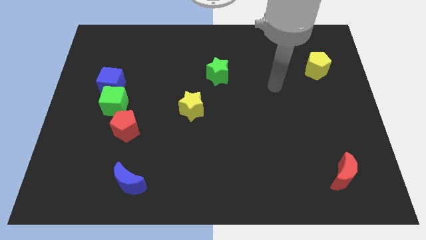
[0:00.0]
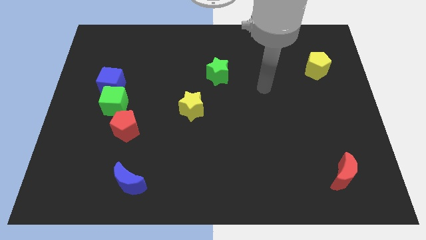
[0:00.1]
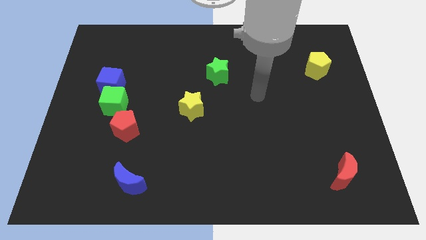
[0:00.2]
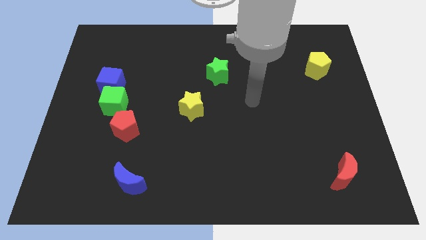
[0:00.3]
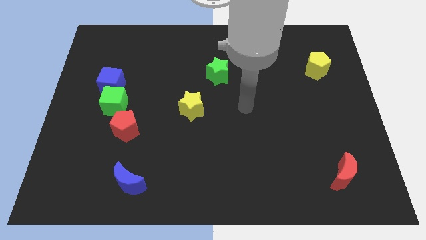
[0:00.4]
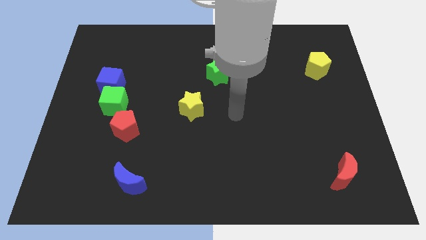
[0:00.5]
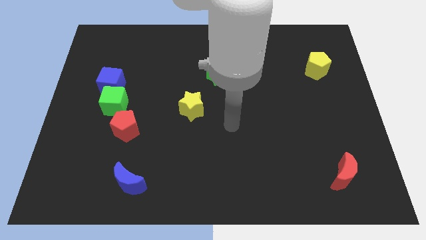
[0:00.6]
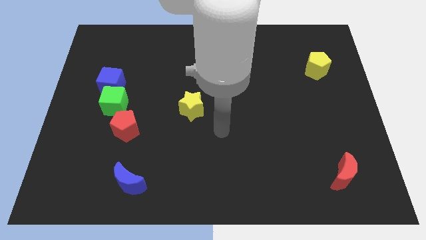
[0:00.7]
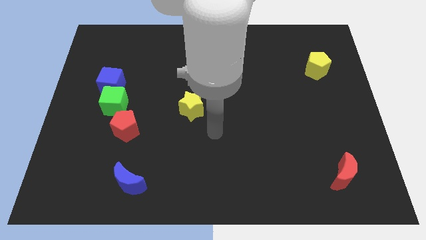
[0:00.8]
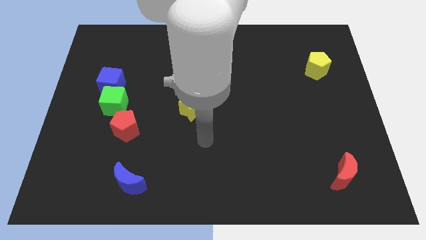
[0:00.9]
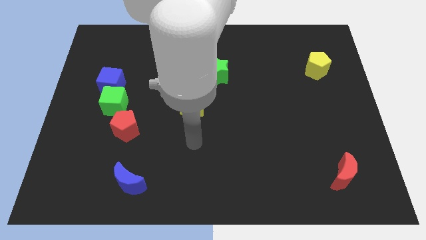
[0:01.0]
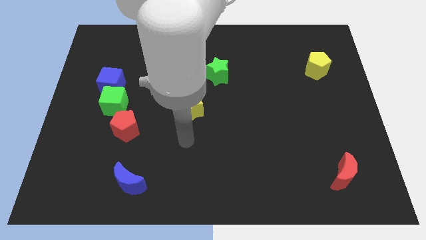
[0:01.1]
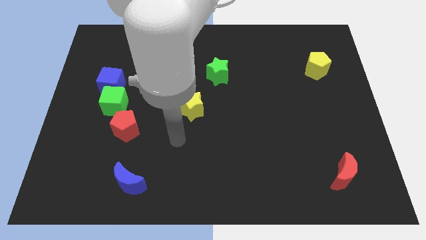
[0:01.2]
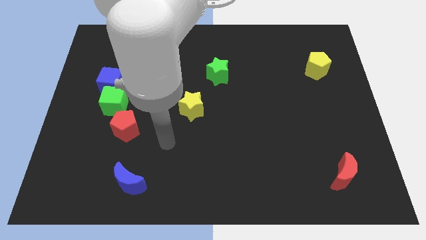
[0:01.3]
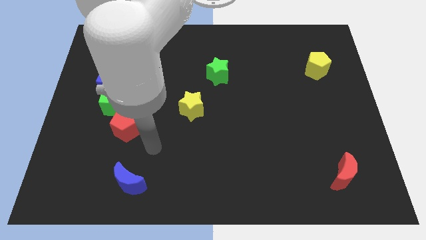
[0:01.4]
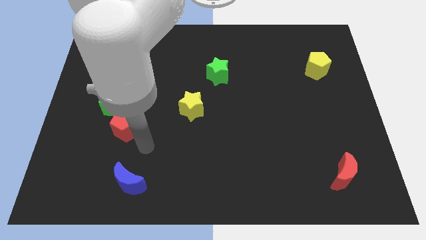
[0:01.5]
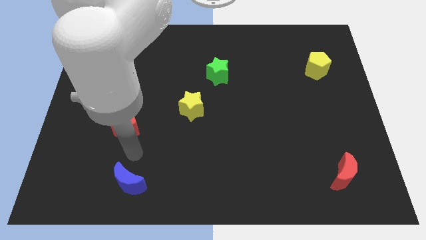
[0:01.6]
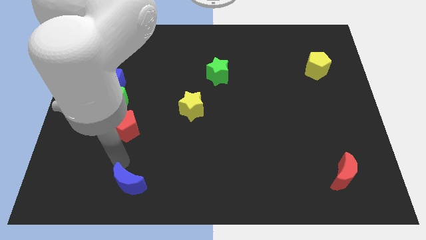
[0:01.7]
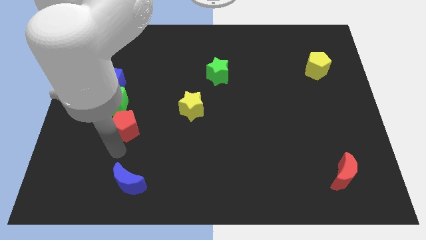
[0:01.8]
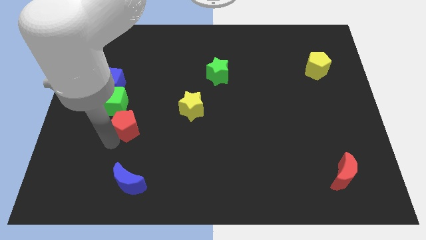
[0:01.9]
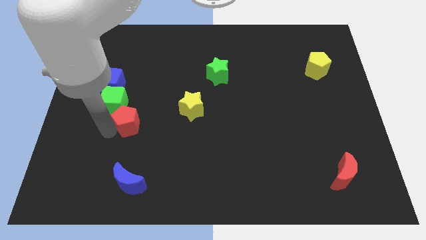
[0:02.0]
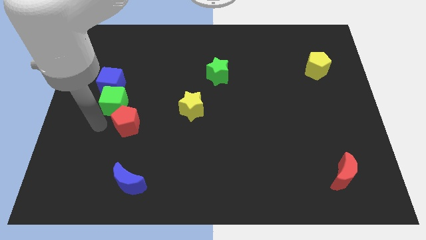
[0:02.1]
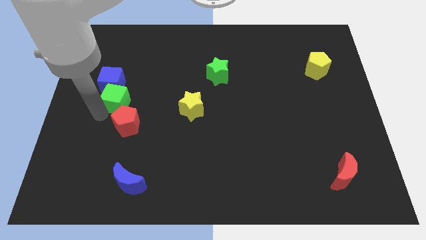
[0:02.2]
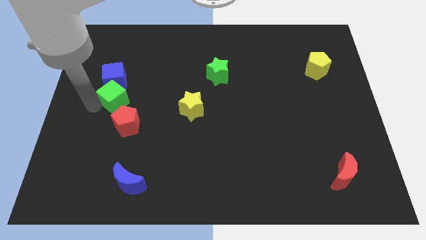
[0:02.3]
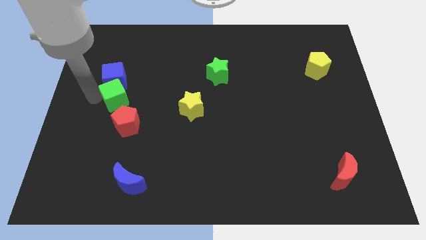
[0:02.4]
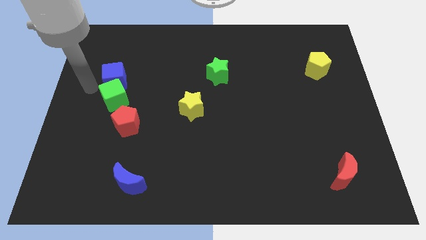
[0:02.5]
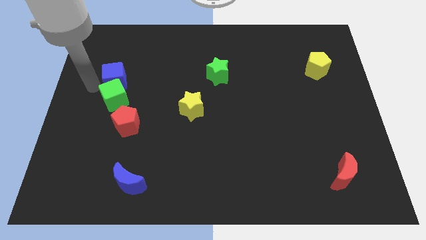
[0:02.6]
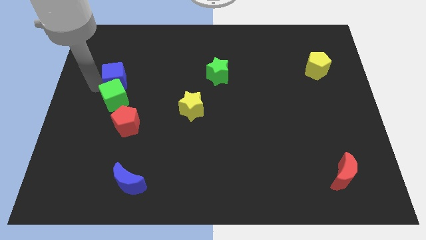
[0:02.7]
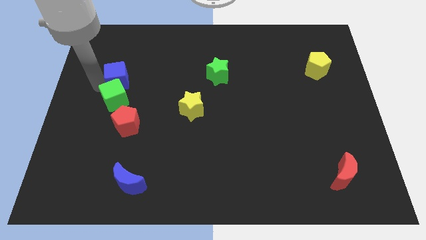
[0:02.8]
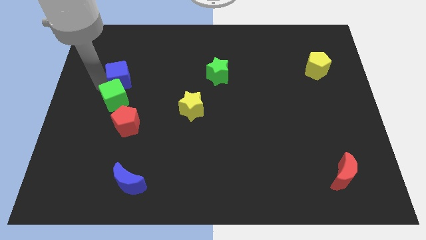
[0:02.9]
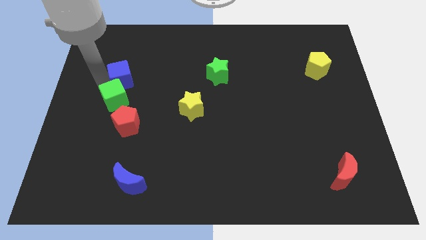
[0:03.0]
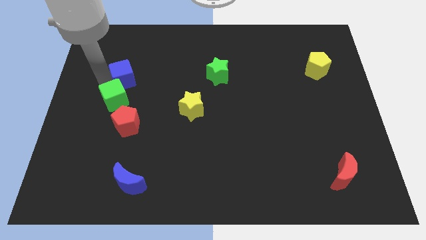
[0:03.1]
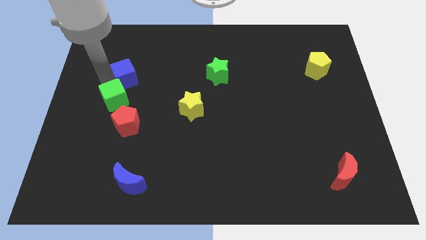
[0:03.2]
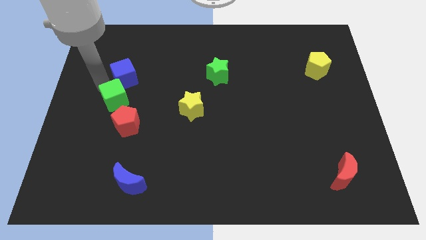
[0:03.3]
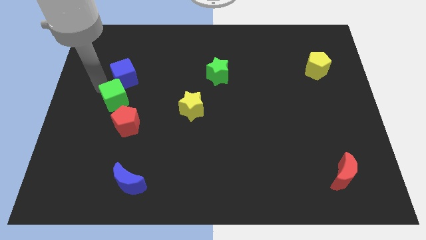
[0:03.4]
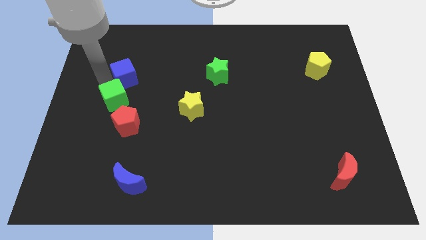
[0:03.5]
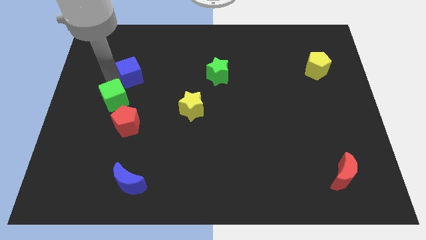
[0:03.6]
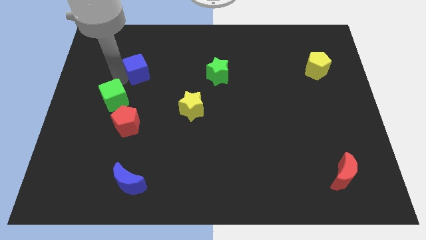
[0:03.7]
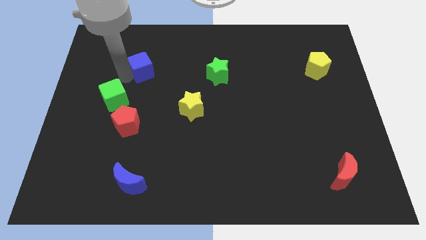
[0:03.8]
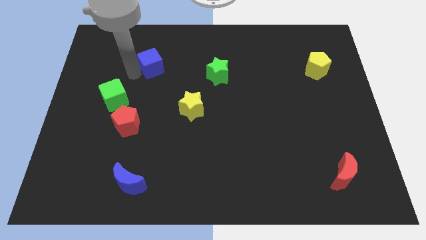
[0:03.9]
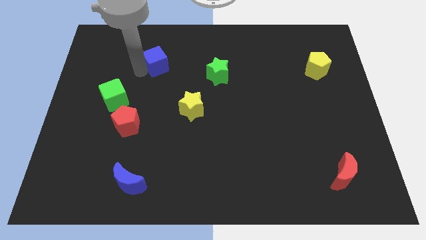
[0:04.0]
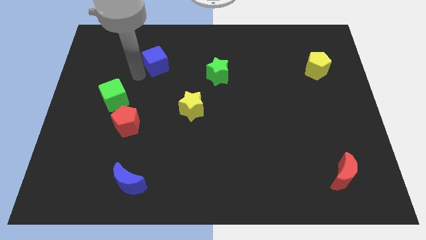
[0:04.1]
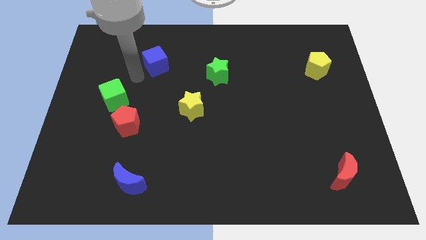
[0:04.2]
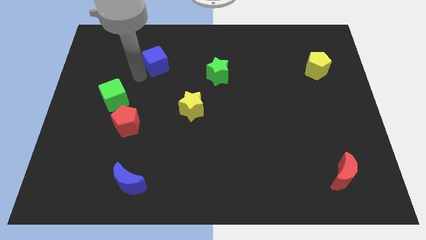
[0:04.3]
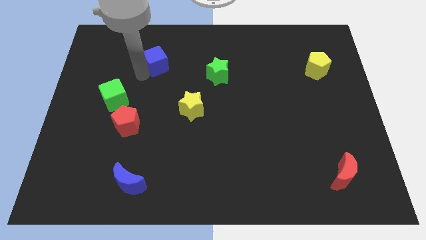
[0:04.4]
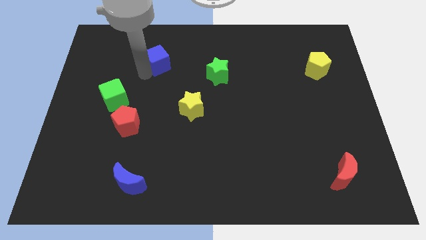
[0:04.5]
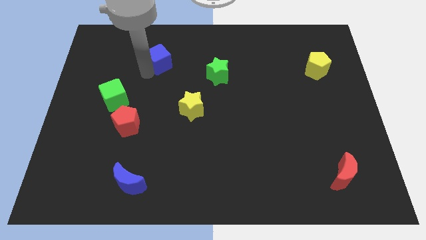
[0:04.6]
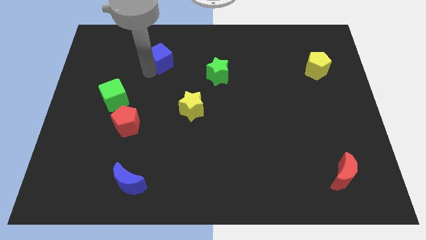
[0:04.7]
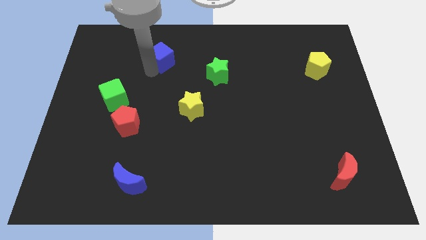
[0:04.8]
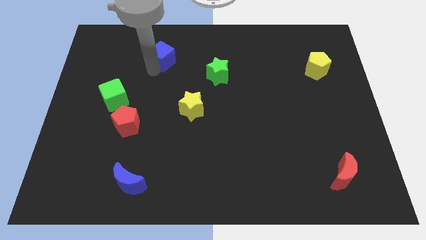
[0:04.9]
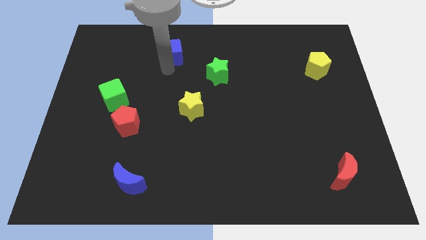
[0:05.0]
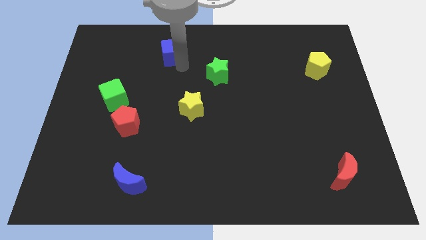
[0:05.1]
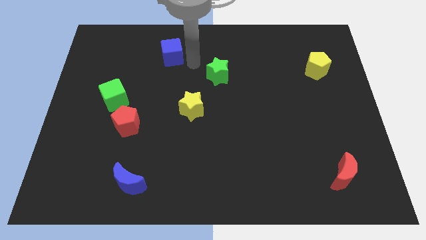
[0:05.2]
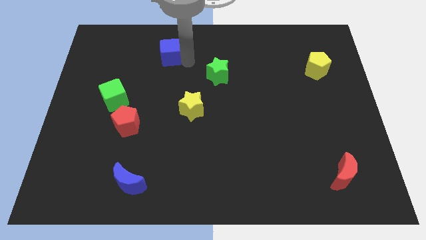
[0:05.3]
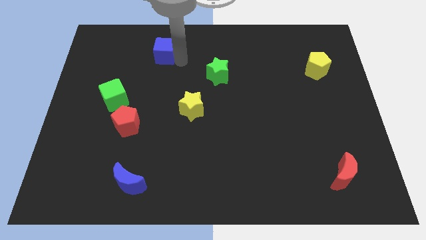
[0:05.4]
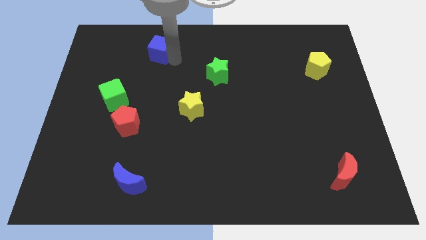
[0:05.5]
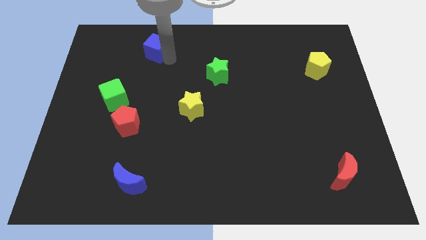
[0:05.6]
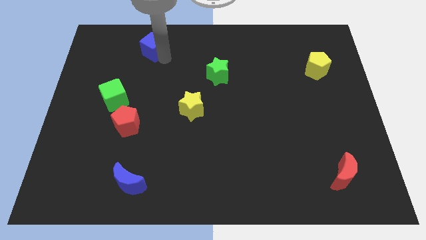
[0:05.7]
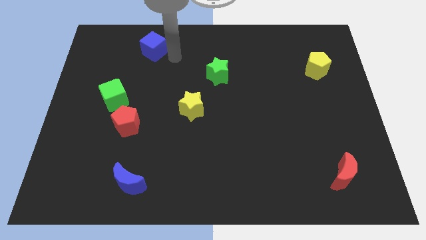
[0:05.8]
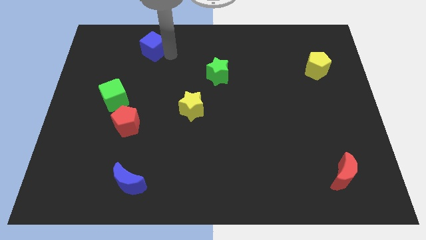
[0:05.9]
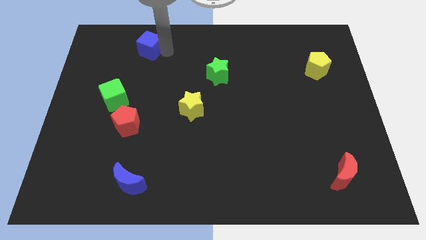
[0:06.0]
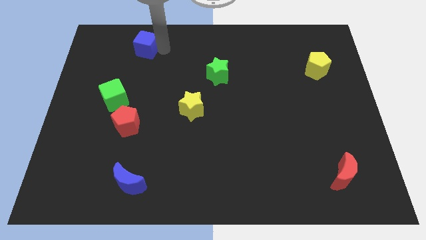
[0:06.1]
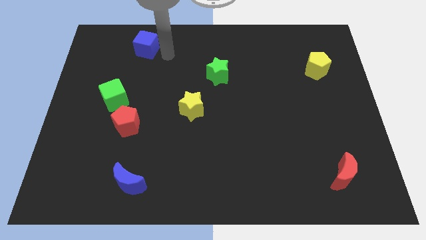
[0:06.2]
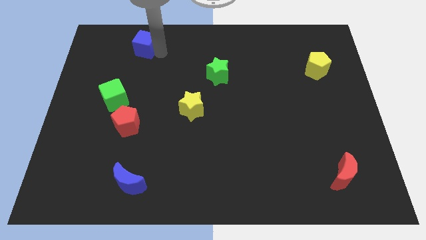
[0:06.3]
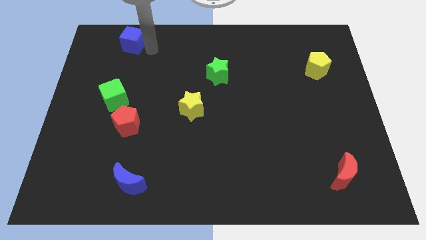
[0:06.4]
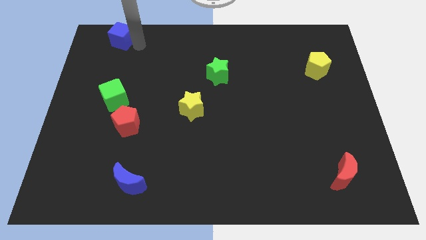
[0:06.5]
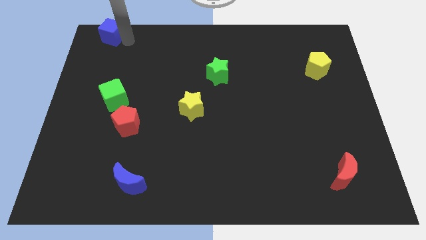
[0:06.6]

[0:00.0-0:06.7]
move the blue cube to the top left corner
